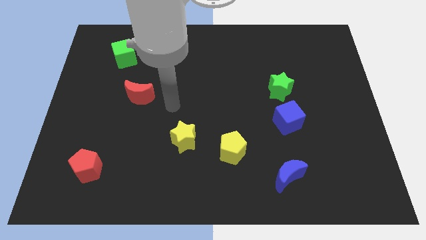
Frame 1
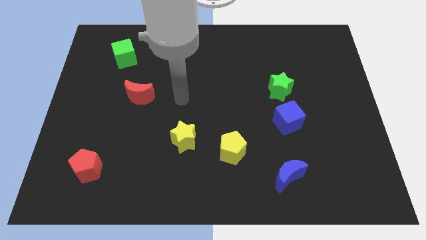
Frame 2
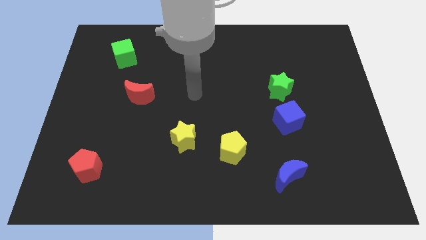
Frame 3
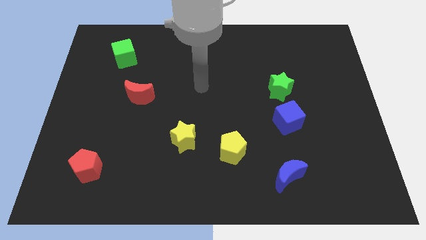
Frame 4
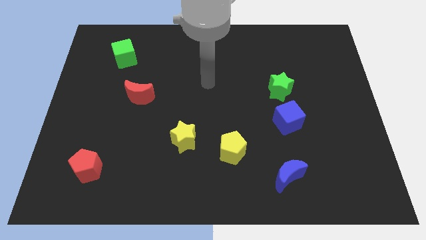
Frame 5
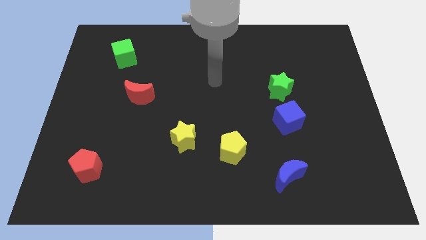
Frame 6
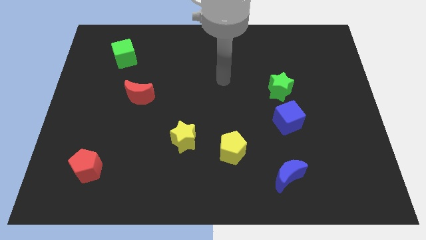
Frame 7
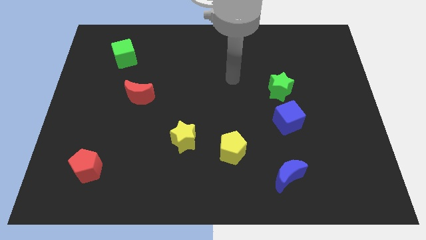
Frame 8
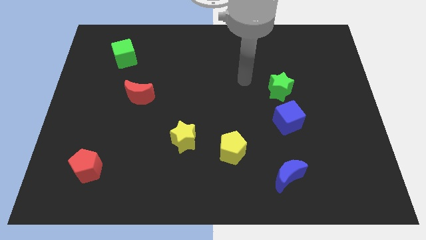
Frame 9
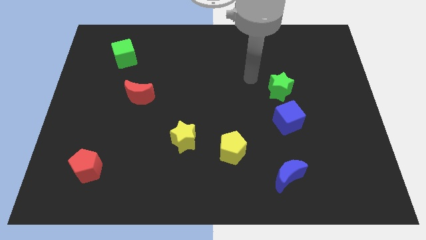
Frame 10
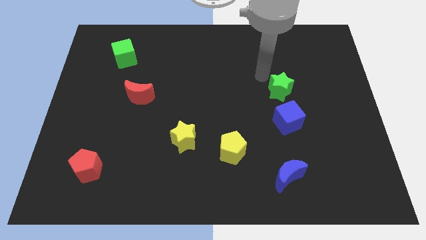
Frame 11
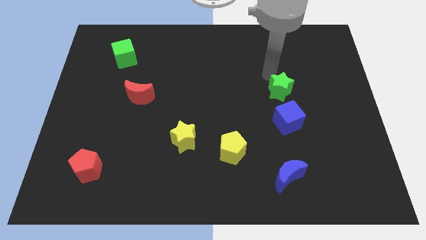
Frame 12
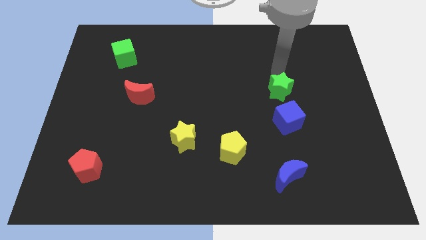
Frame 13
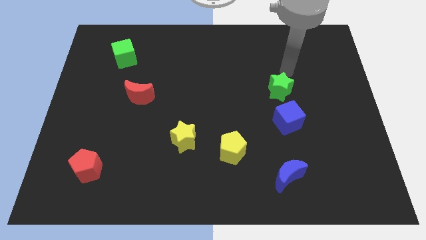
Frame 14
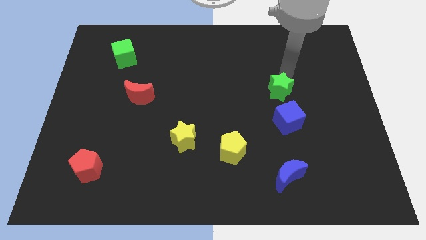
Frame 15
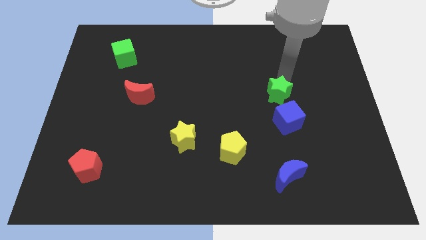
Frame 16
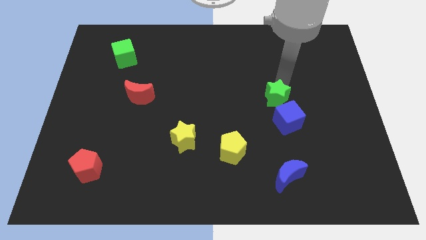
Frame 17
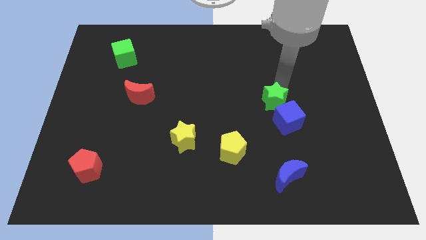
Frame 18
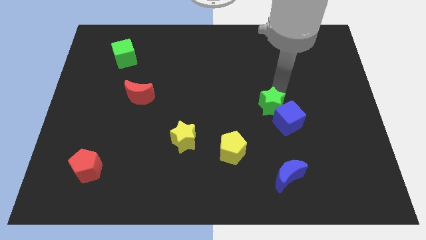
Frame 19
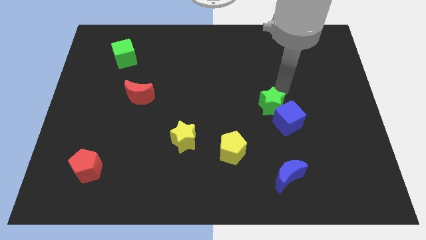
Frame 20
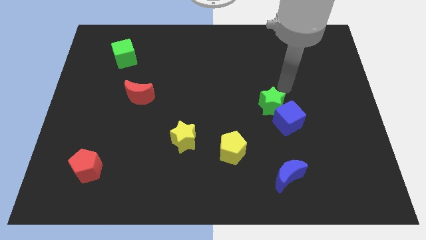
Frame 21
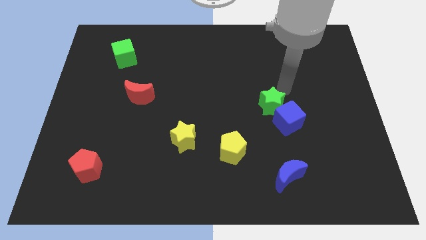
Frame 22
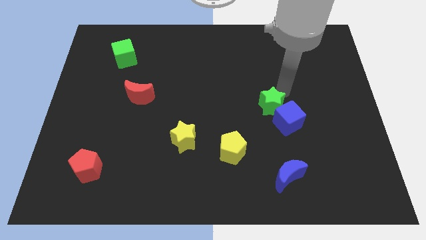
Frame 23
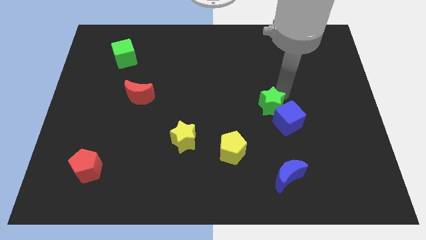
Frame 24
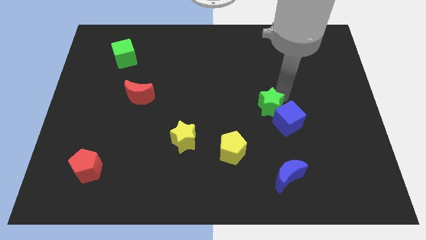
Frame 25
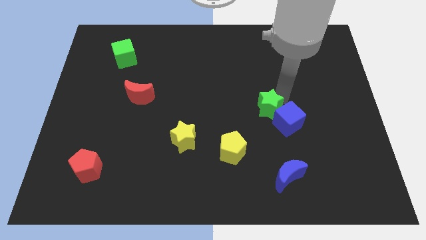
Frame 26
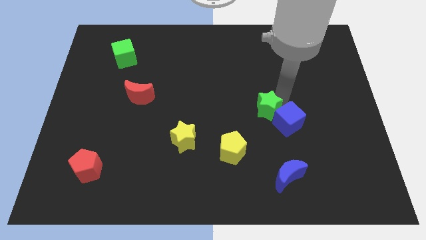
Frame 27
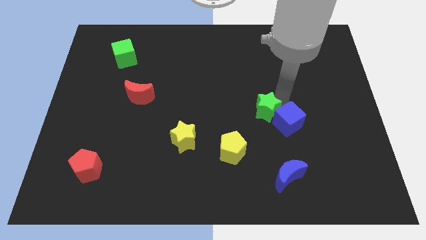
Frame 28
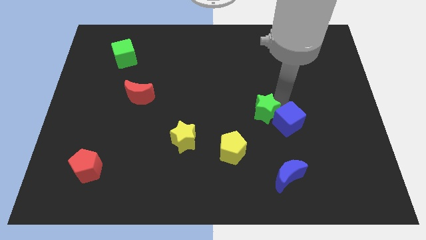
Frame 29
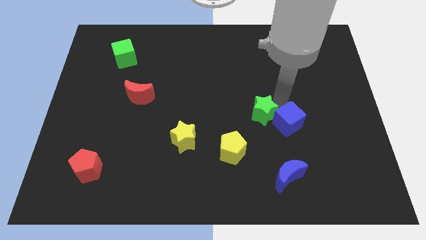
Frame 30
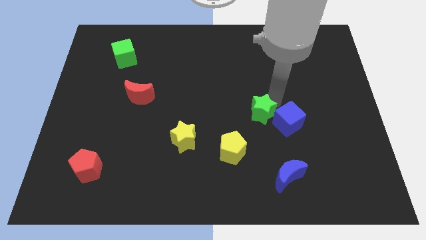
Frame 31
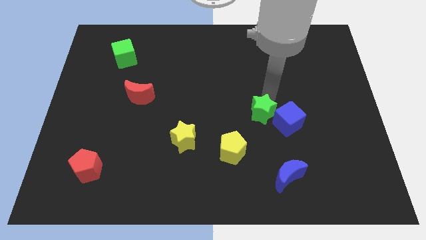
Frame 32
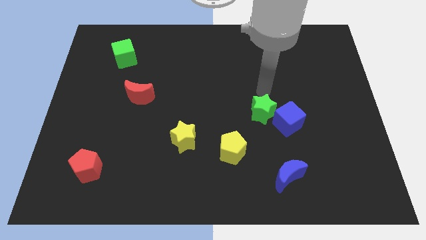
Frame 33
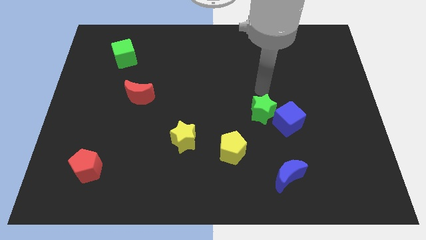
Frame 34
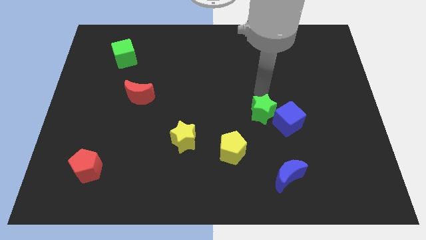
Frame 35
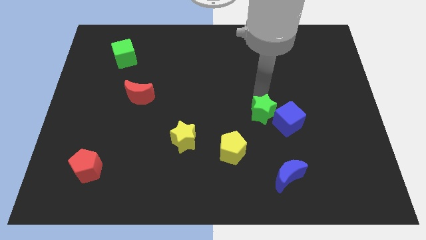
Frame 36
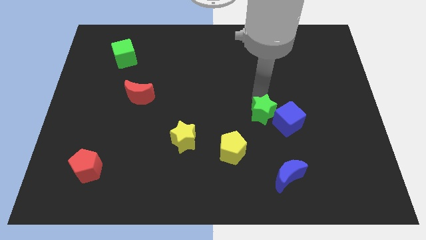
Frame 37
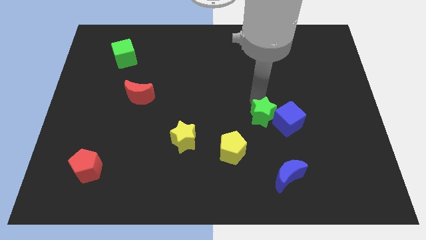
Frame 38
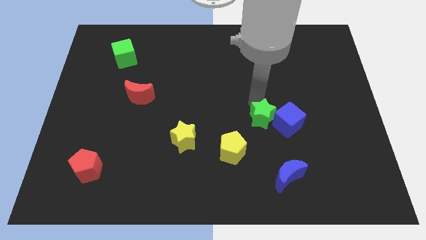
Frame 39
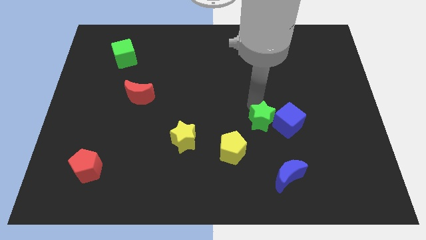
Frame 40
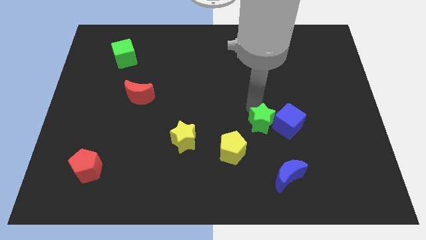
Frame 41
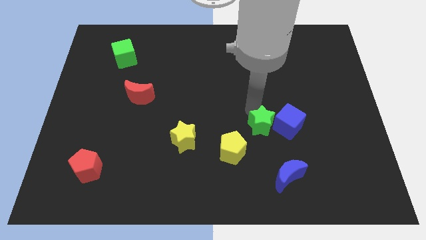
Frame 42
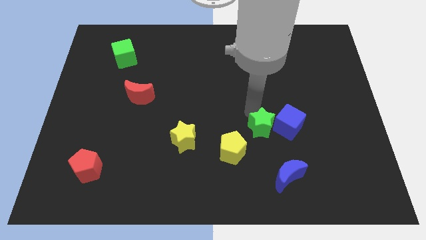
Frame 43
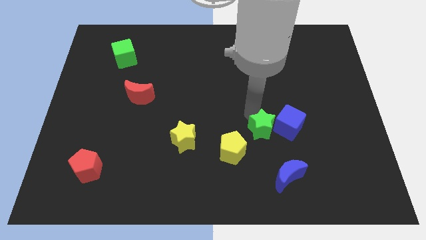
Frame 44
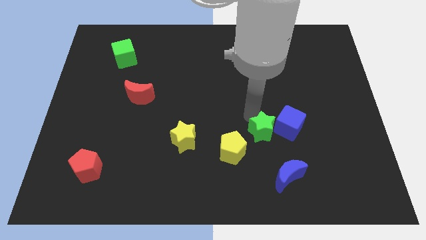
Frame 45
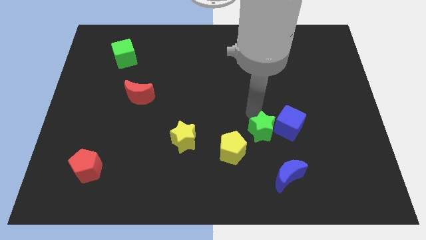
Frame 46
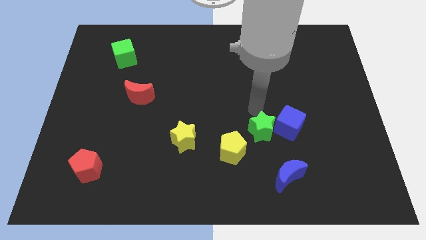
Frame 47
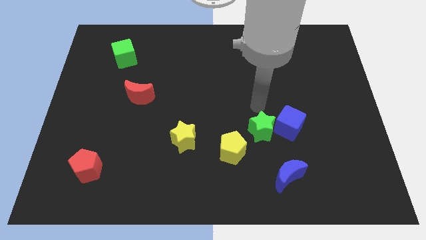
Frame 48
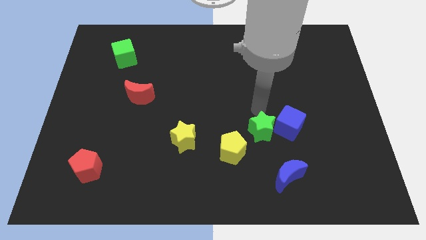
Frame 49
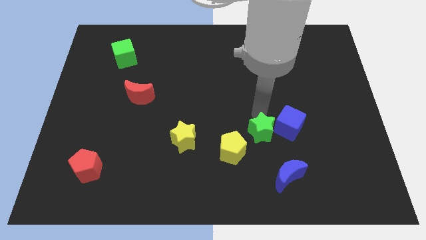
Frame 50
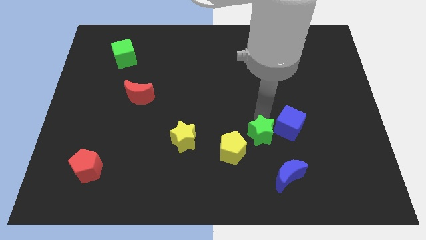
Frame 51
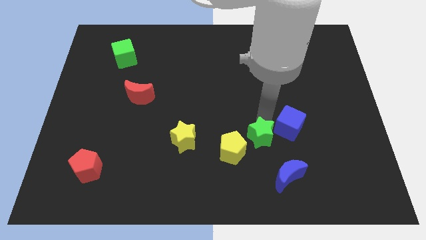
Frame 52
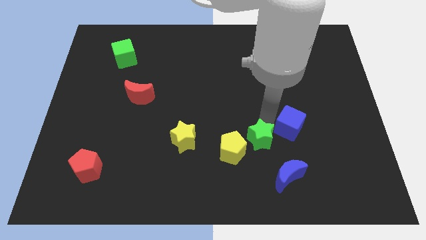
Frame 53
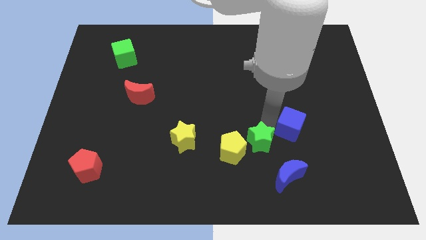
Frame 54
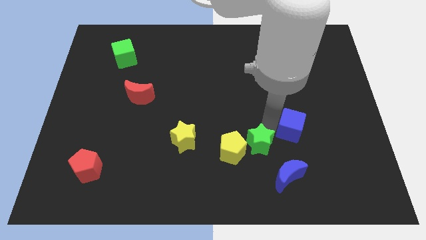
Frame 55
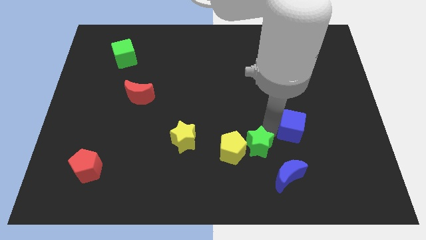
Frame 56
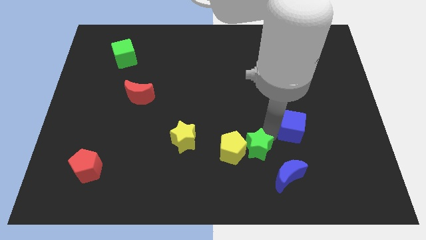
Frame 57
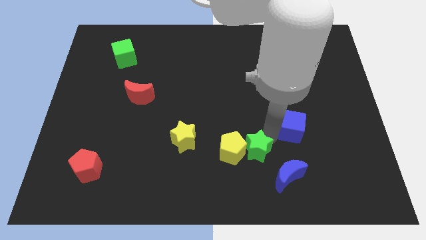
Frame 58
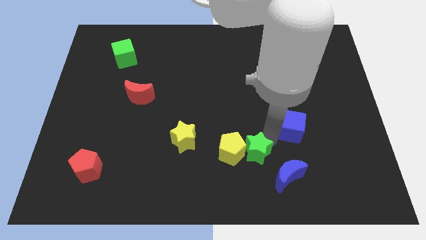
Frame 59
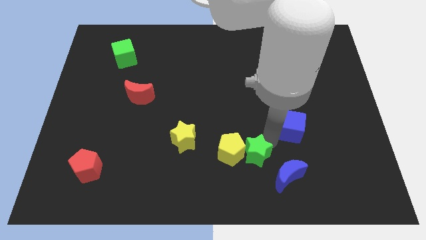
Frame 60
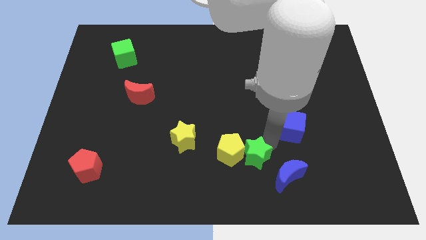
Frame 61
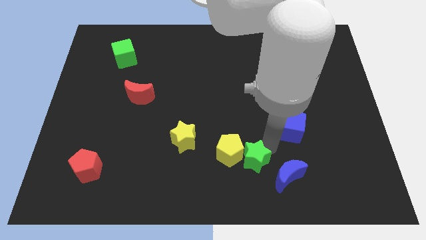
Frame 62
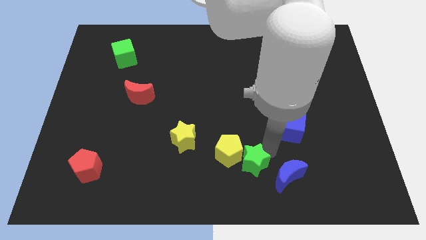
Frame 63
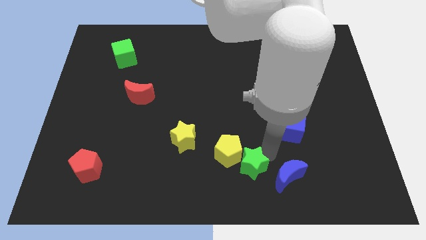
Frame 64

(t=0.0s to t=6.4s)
slide the green star to the bottom
